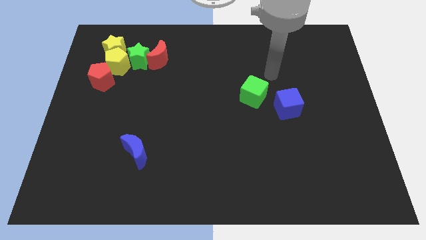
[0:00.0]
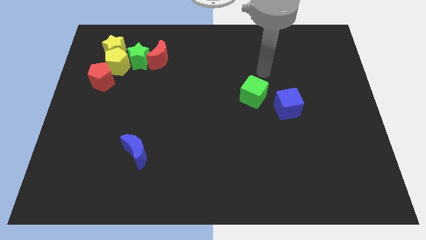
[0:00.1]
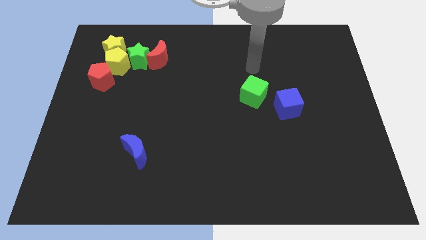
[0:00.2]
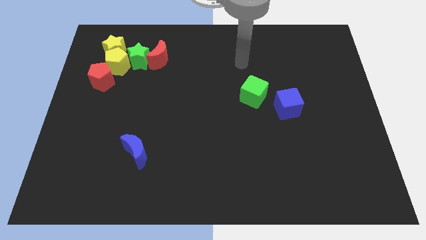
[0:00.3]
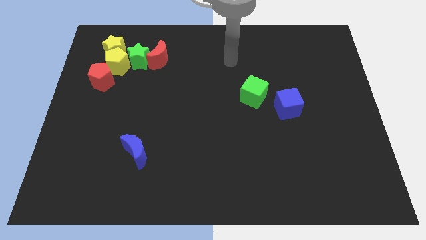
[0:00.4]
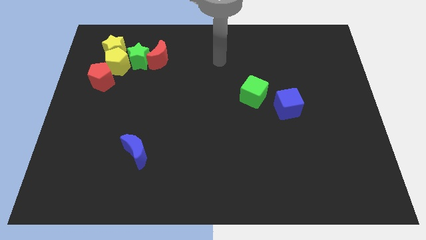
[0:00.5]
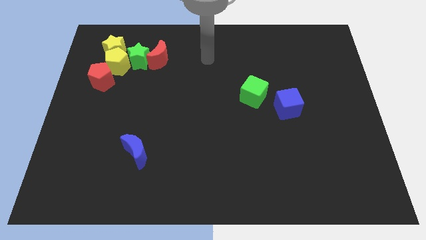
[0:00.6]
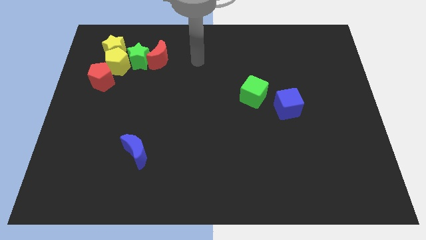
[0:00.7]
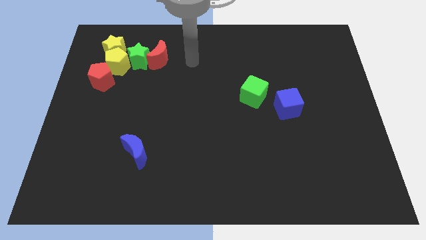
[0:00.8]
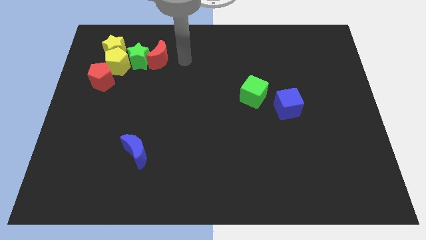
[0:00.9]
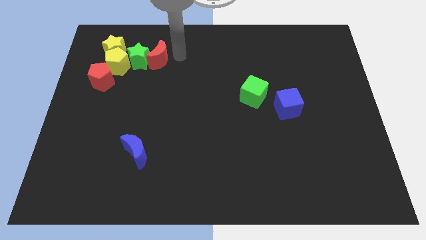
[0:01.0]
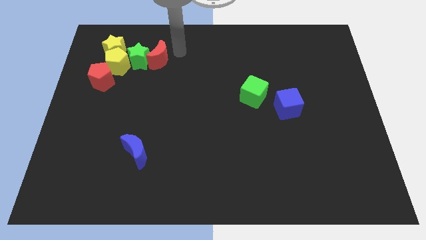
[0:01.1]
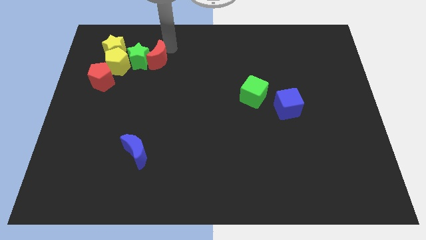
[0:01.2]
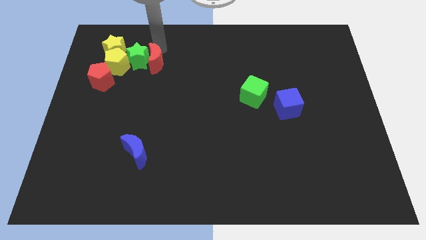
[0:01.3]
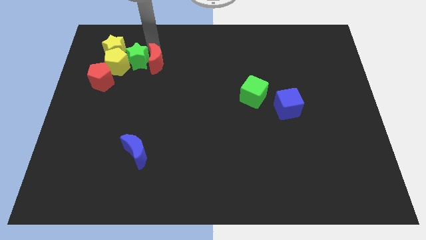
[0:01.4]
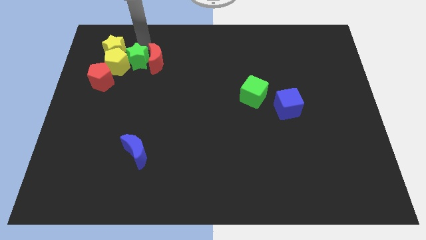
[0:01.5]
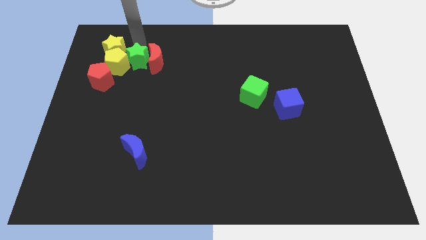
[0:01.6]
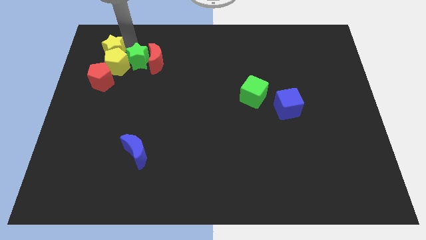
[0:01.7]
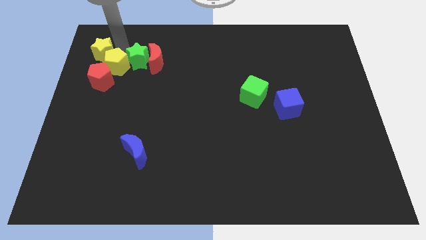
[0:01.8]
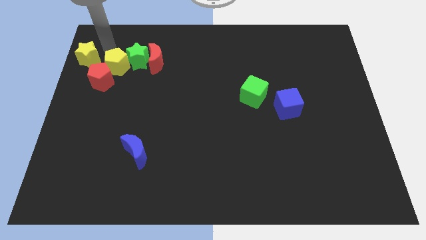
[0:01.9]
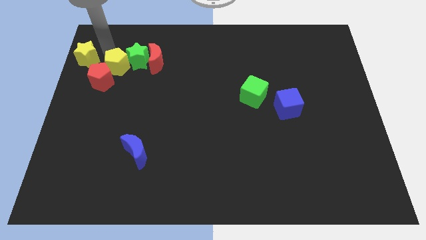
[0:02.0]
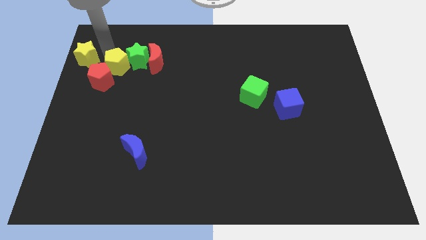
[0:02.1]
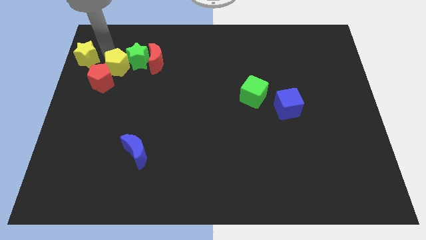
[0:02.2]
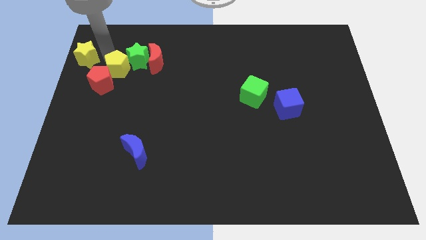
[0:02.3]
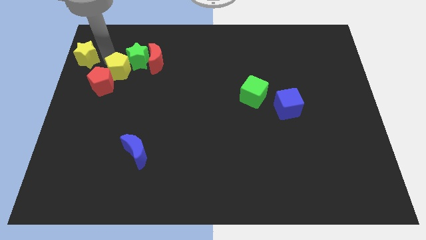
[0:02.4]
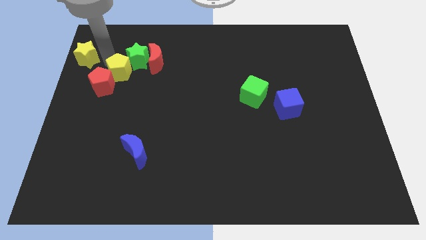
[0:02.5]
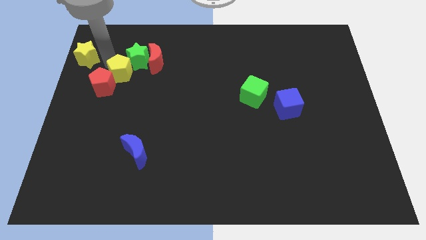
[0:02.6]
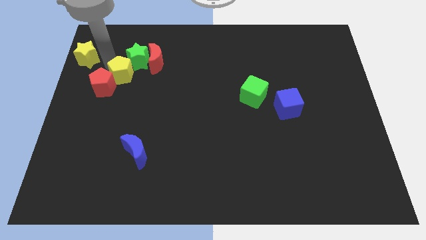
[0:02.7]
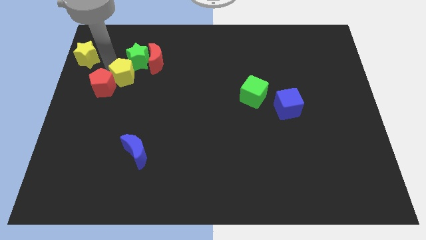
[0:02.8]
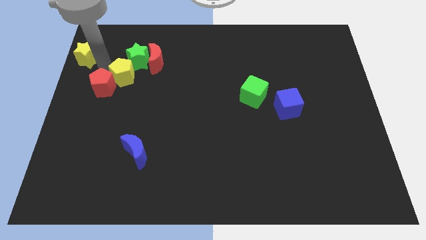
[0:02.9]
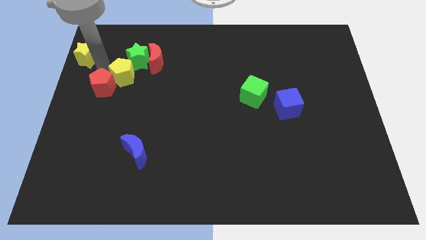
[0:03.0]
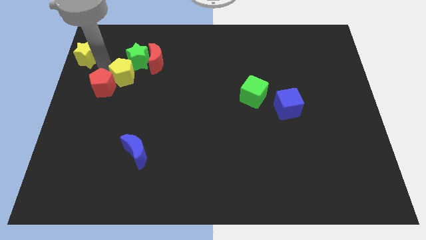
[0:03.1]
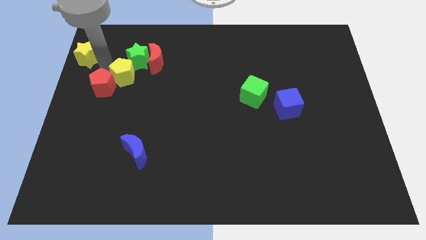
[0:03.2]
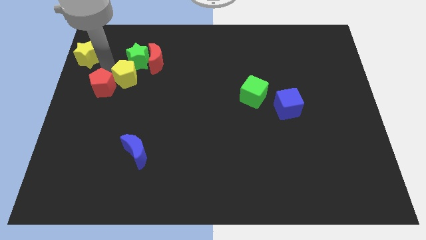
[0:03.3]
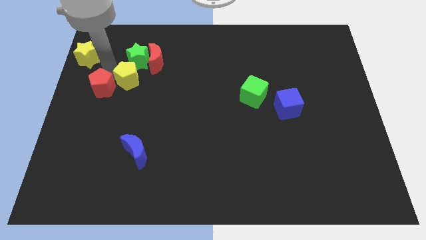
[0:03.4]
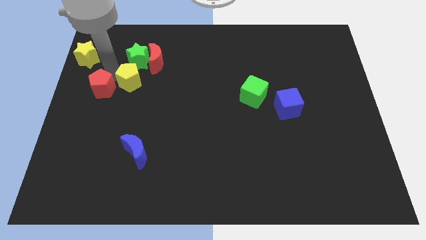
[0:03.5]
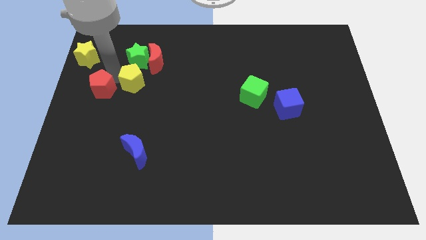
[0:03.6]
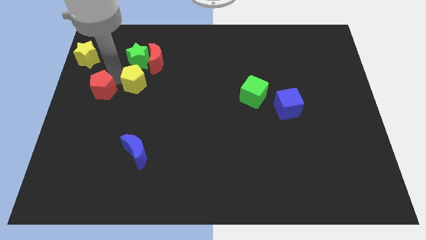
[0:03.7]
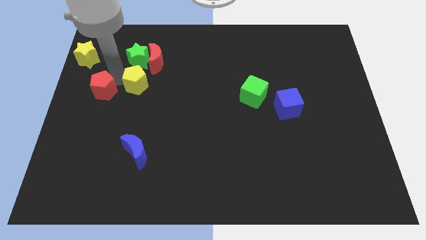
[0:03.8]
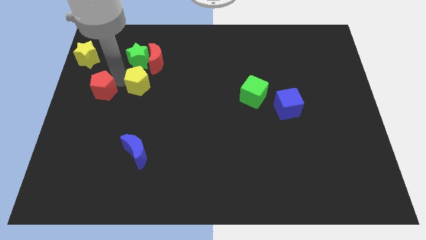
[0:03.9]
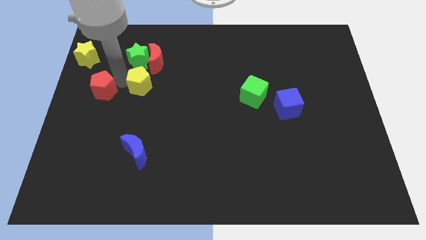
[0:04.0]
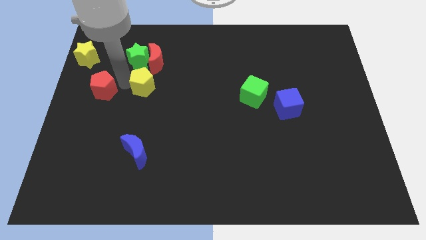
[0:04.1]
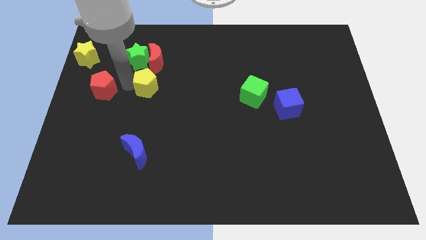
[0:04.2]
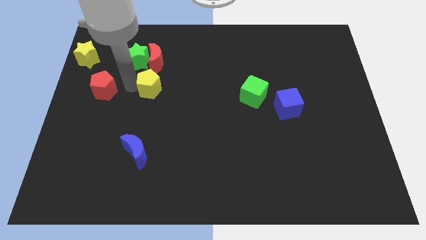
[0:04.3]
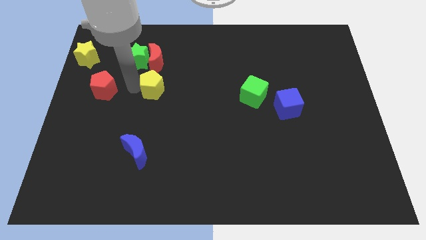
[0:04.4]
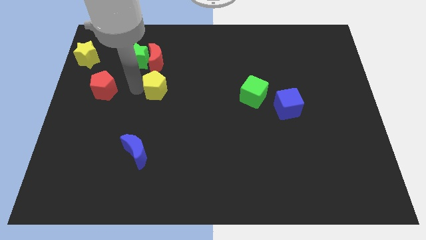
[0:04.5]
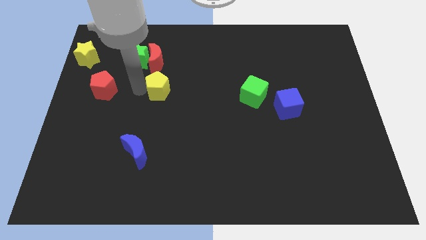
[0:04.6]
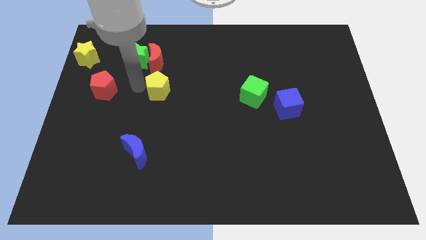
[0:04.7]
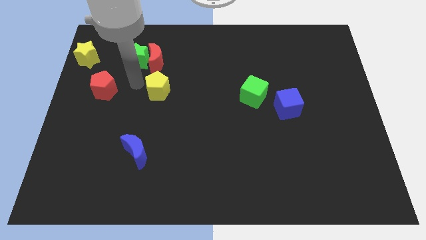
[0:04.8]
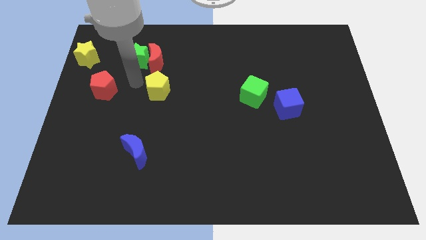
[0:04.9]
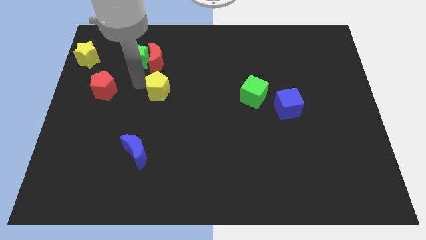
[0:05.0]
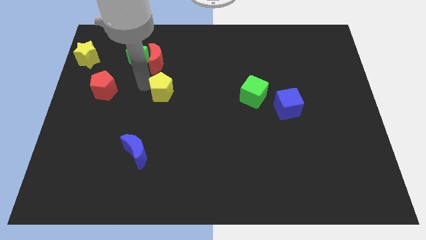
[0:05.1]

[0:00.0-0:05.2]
put the yellow pentagon to the center of the board

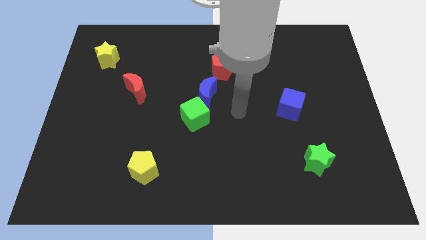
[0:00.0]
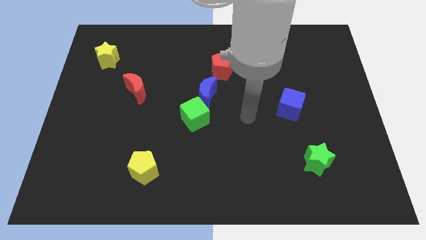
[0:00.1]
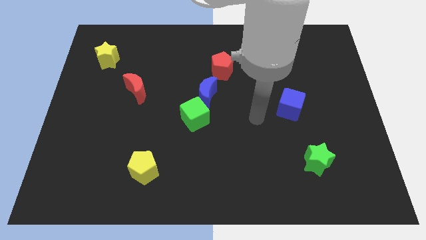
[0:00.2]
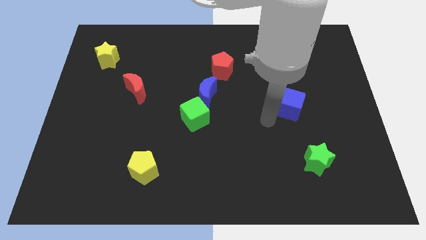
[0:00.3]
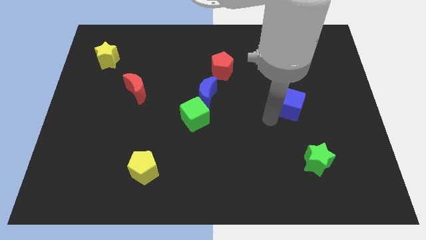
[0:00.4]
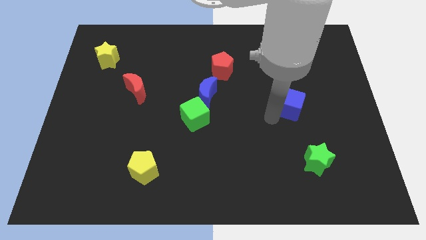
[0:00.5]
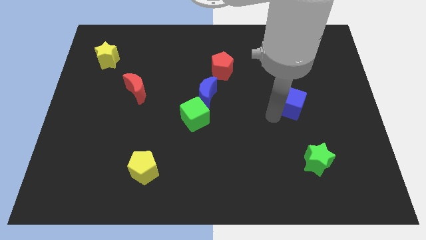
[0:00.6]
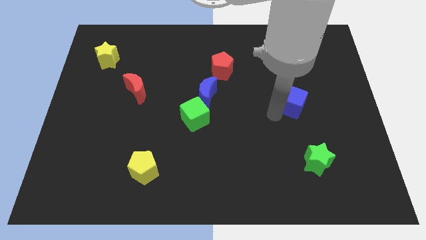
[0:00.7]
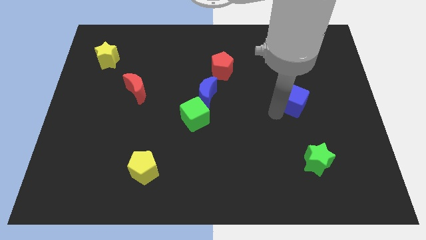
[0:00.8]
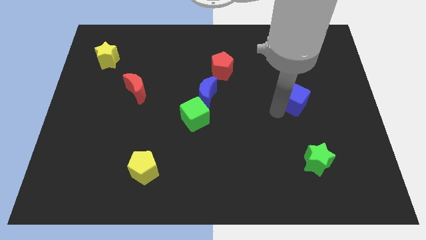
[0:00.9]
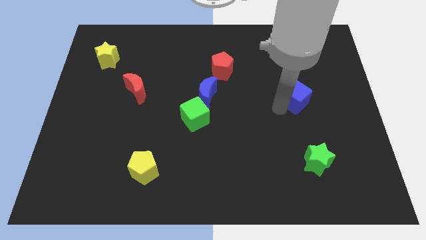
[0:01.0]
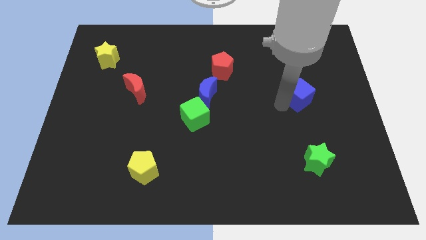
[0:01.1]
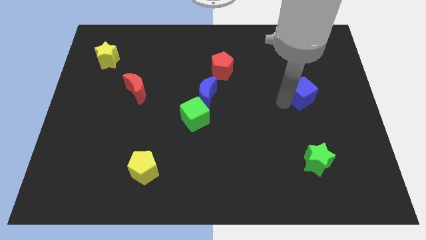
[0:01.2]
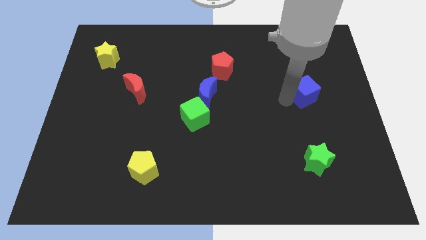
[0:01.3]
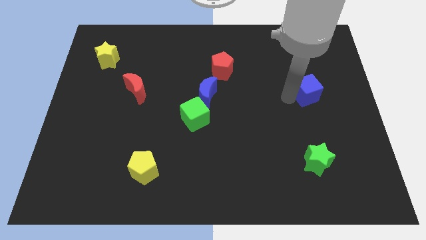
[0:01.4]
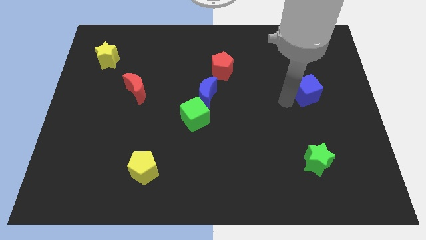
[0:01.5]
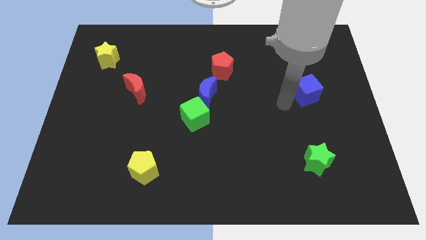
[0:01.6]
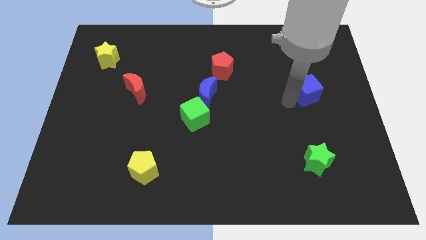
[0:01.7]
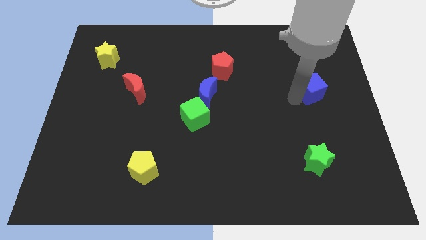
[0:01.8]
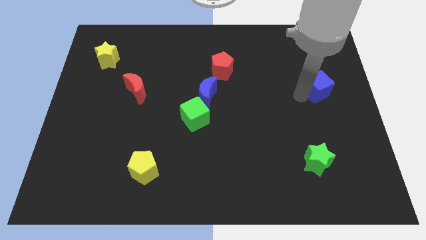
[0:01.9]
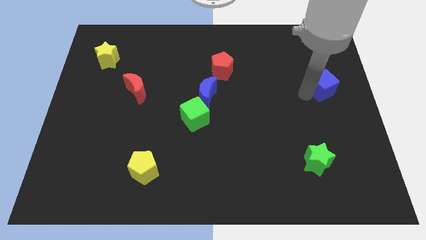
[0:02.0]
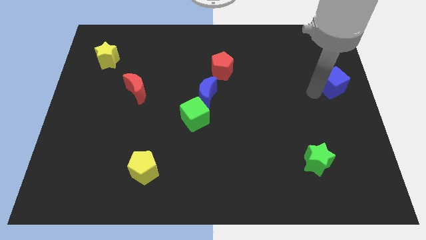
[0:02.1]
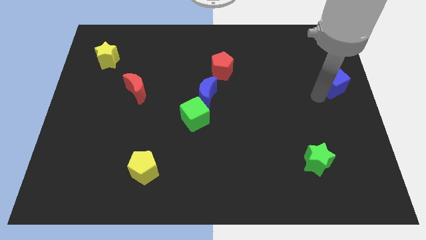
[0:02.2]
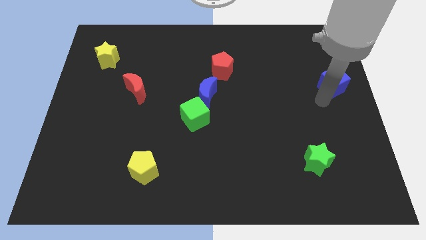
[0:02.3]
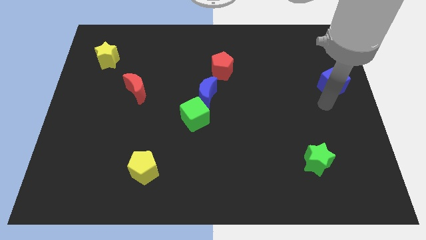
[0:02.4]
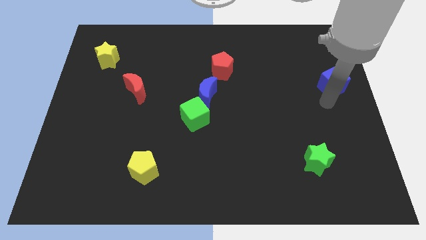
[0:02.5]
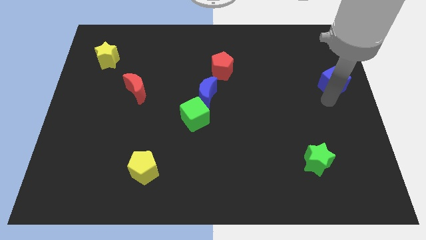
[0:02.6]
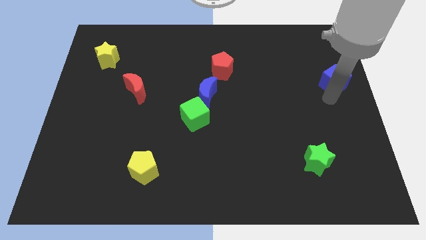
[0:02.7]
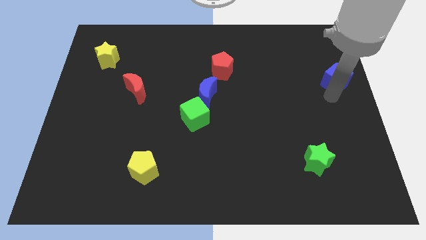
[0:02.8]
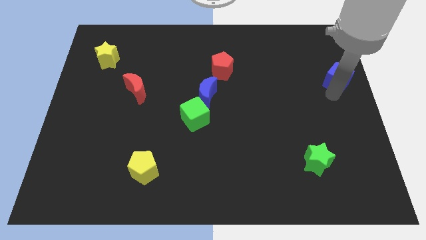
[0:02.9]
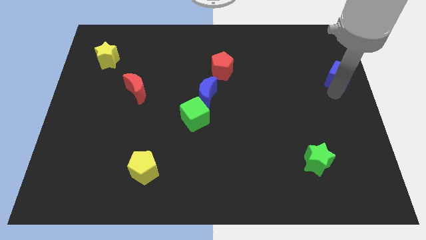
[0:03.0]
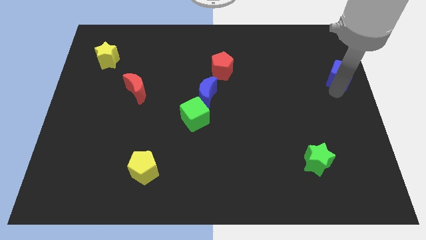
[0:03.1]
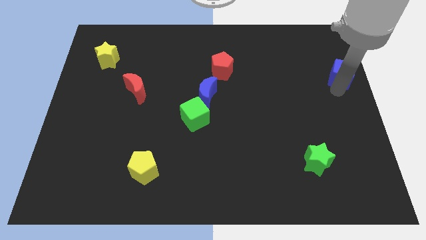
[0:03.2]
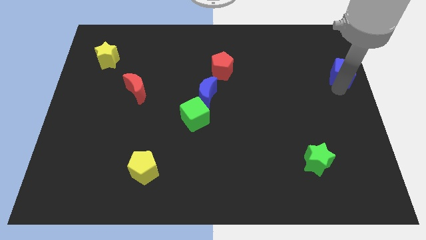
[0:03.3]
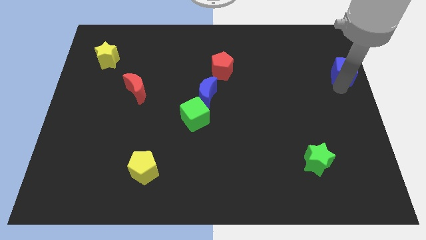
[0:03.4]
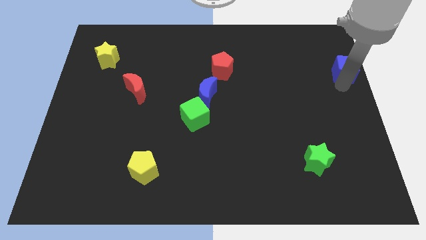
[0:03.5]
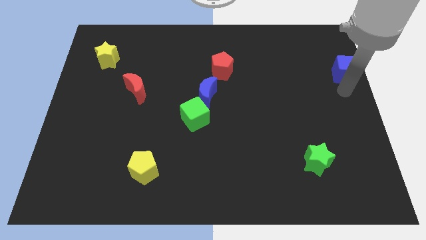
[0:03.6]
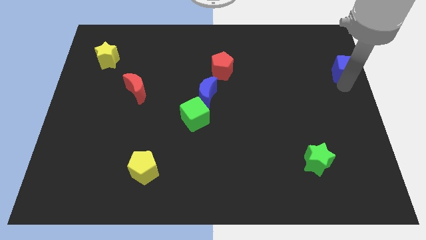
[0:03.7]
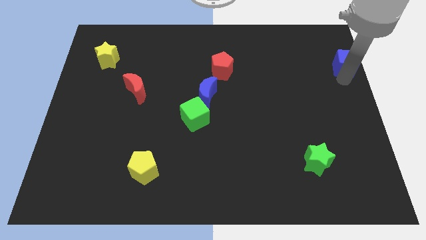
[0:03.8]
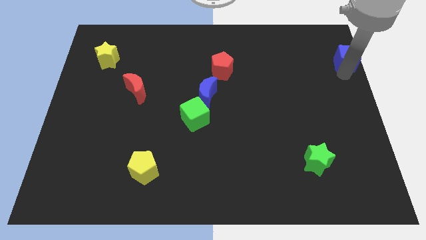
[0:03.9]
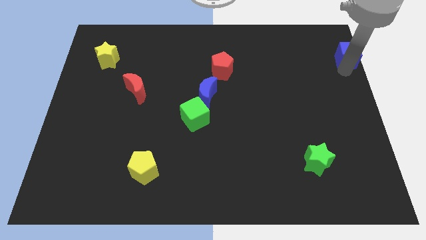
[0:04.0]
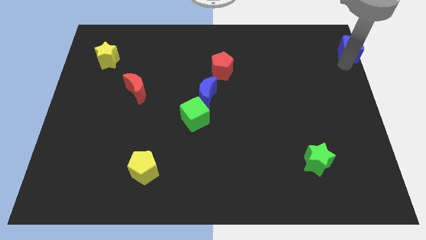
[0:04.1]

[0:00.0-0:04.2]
put the blue cube to the top right
